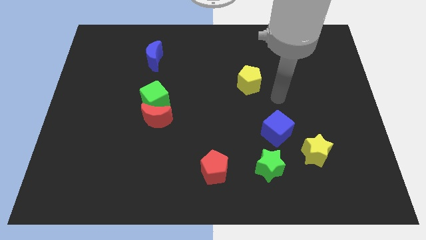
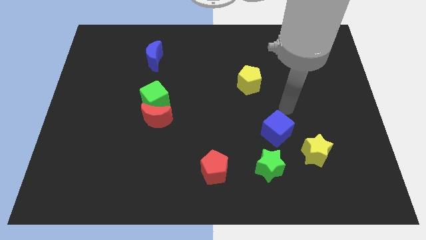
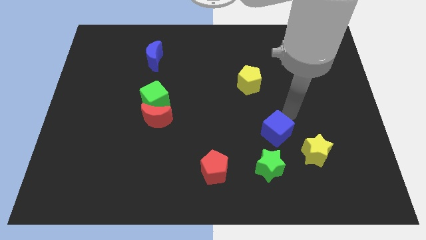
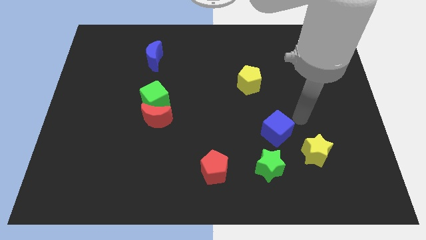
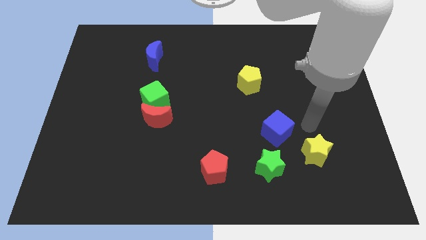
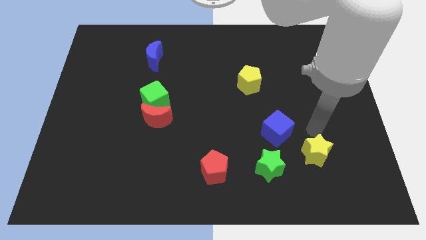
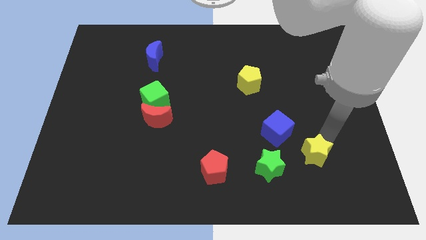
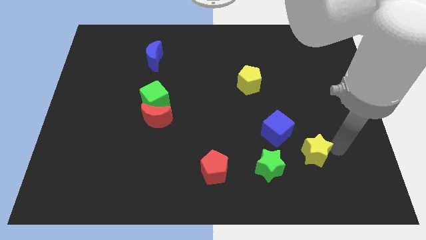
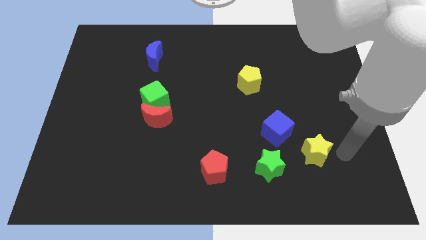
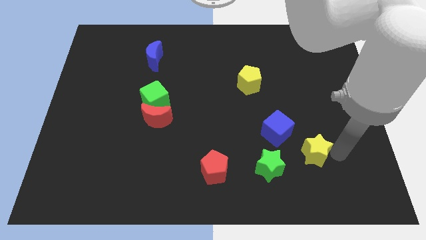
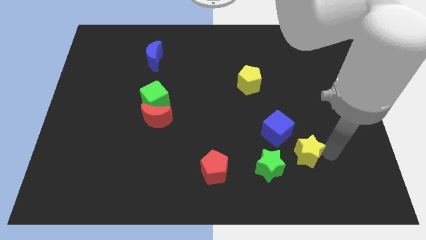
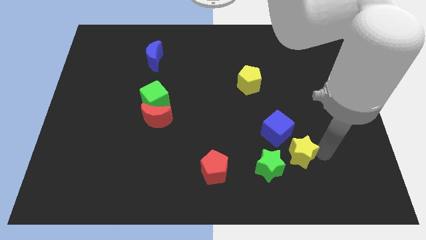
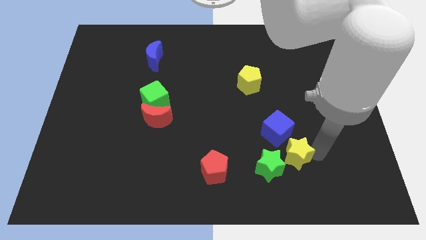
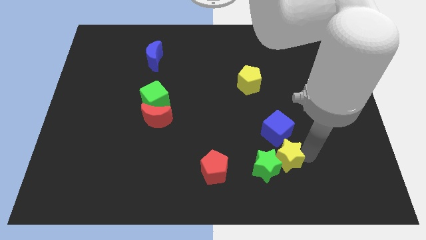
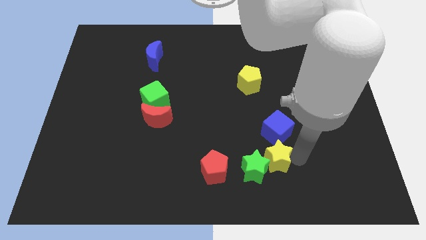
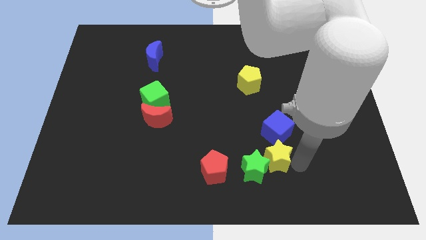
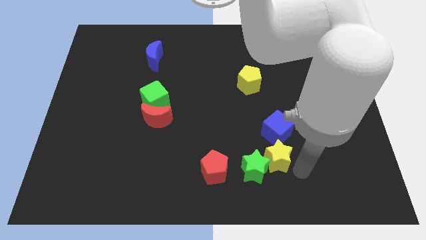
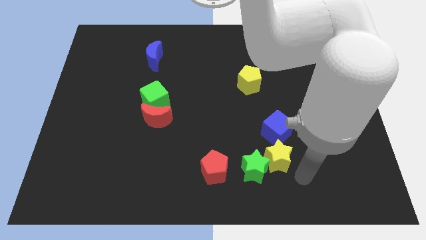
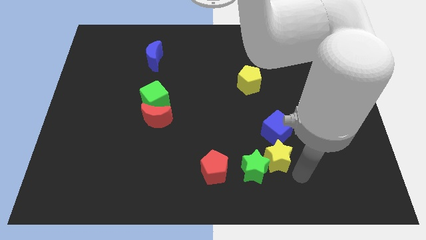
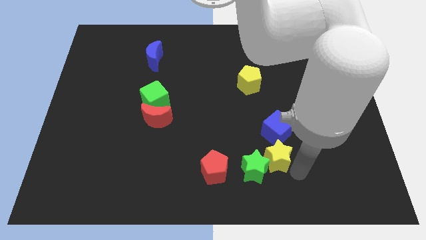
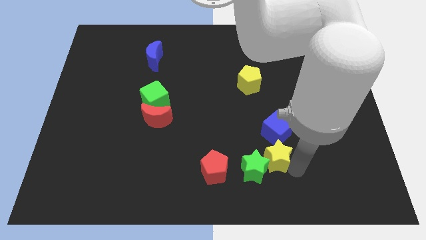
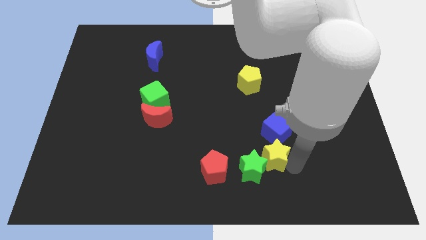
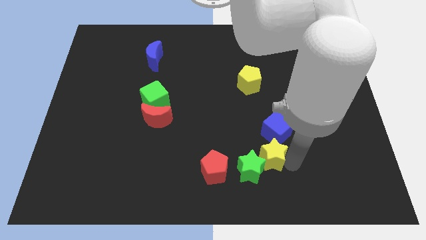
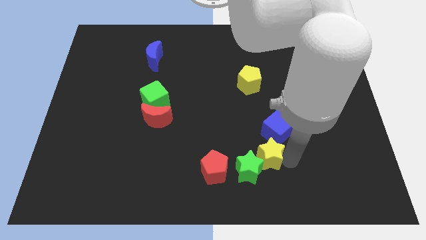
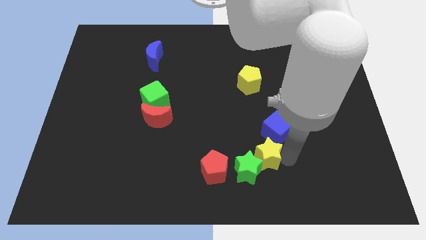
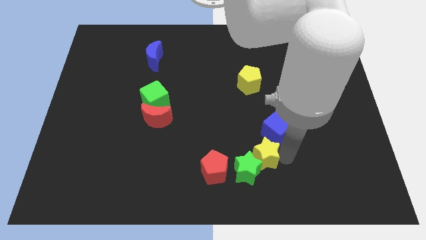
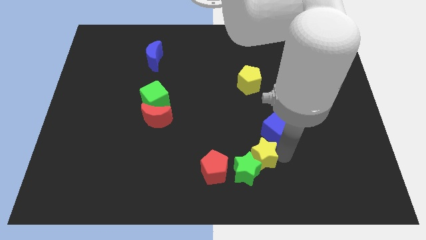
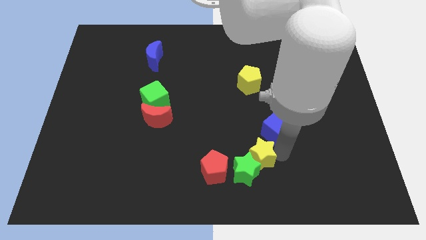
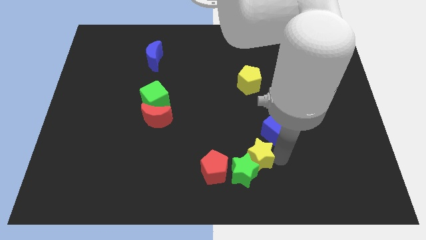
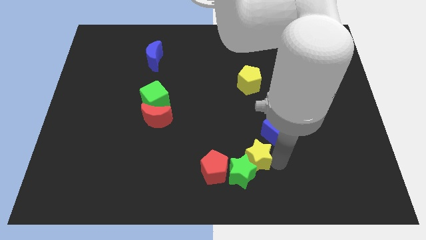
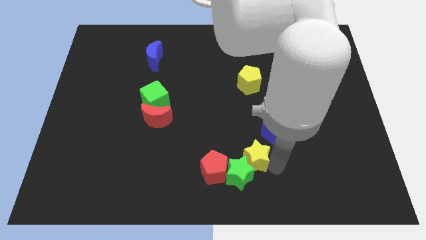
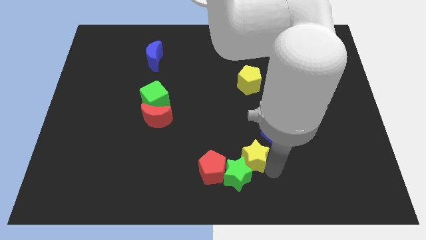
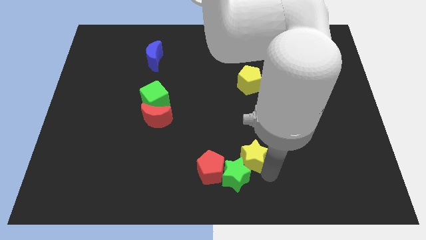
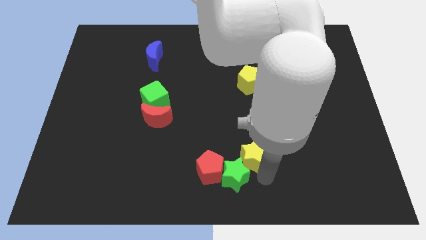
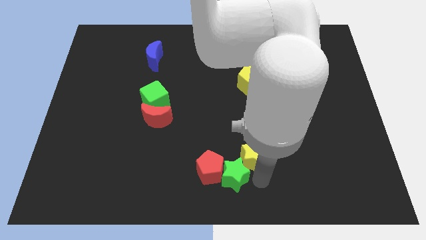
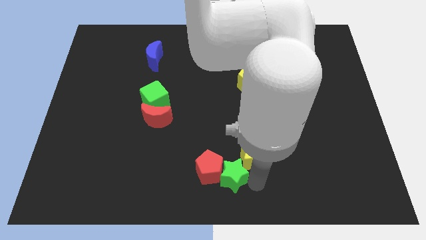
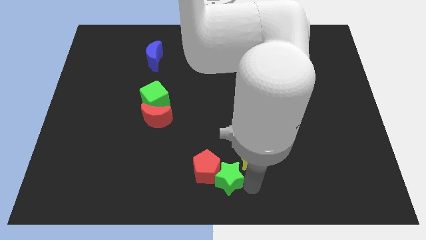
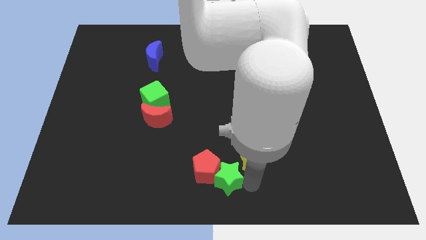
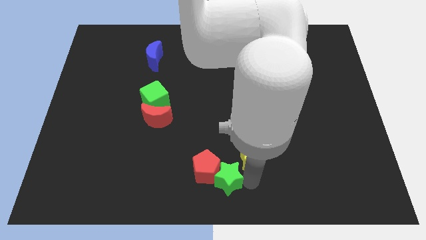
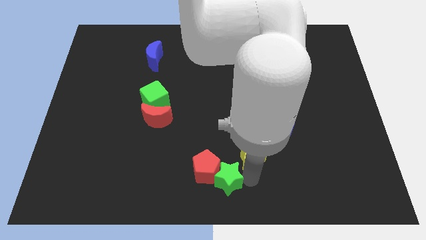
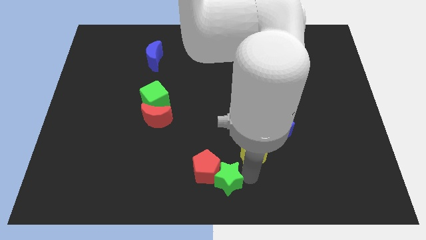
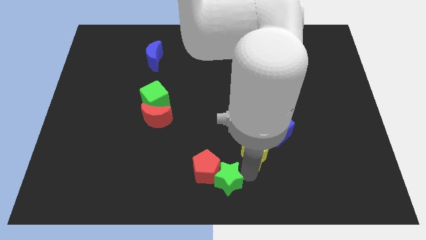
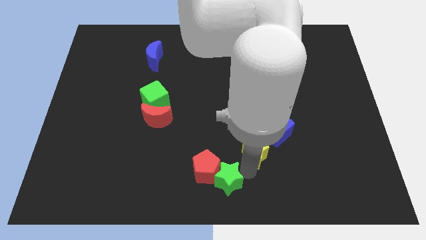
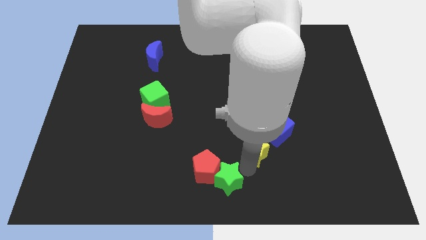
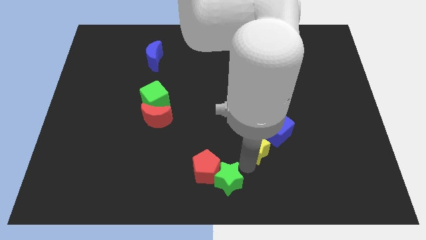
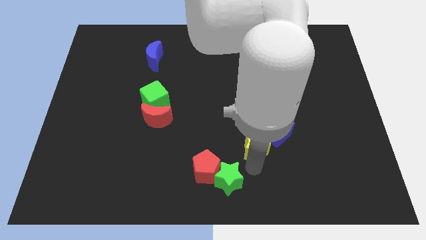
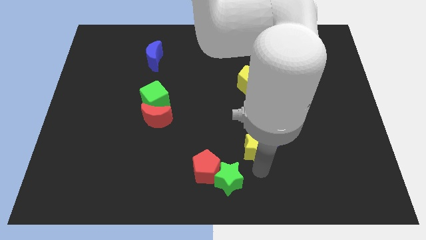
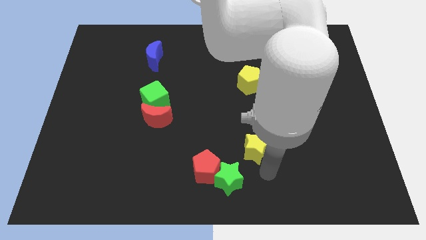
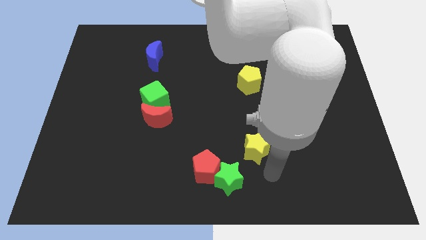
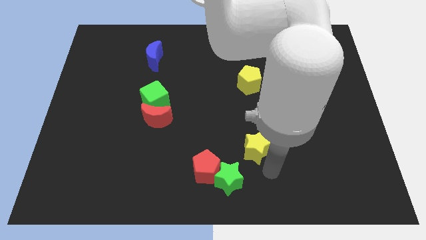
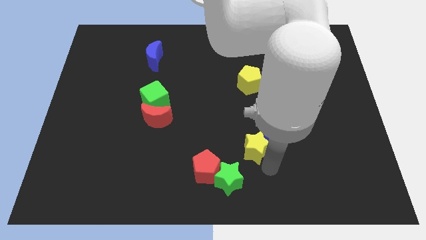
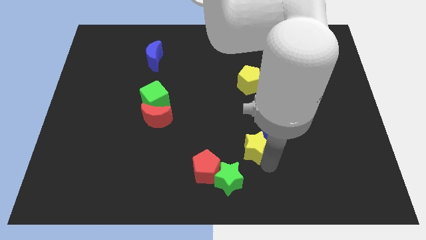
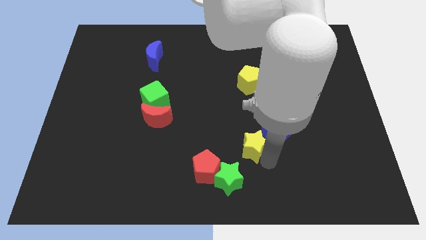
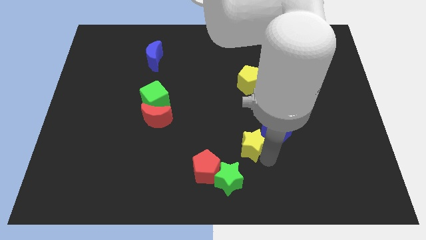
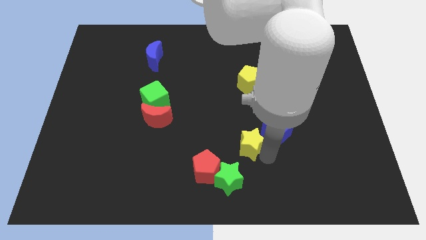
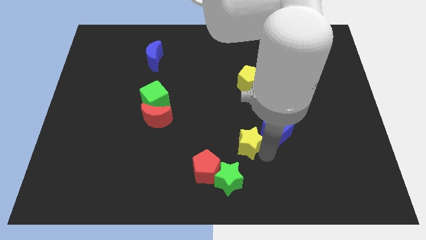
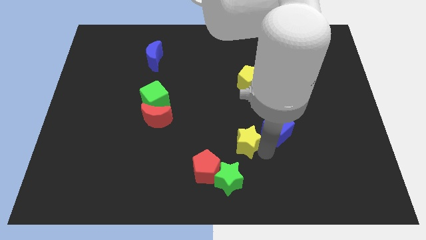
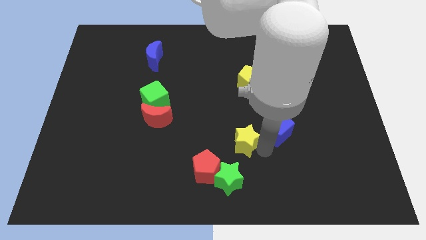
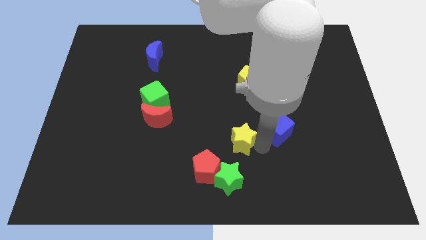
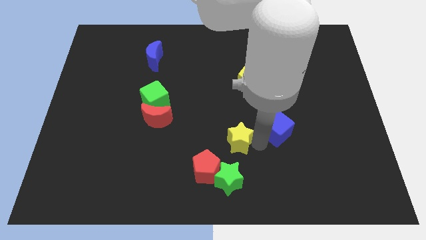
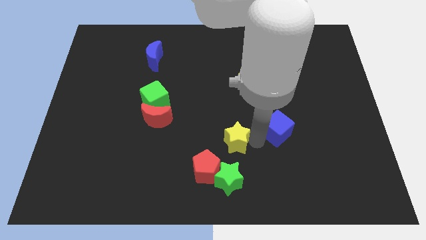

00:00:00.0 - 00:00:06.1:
move the yellow star to the middle of the board

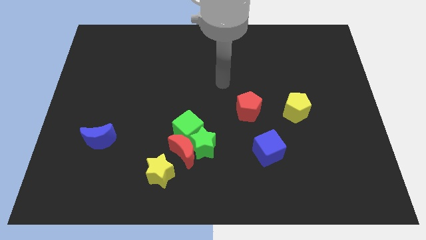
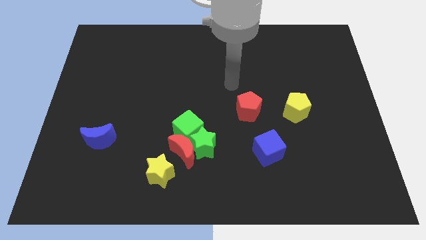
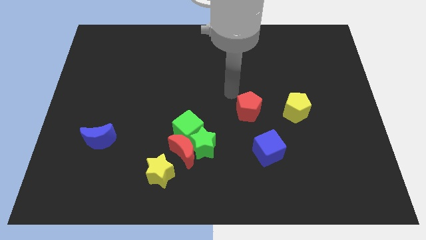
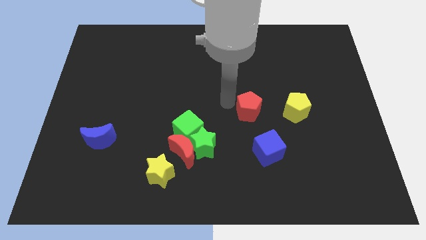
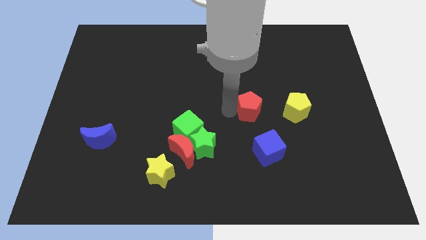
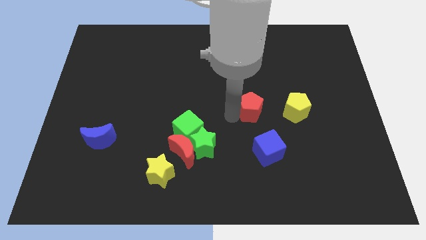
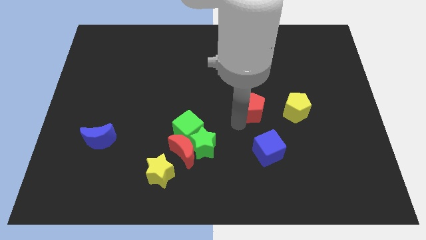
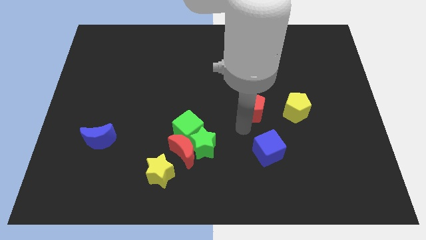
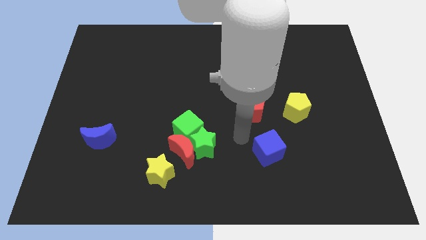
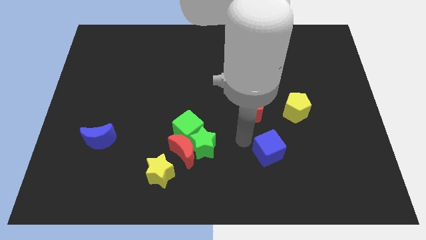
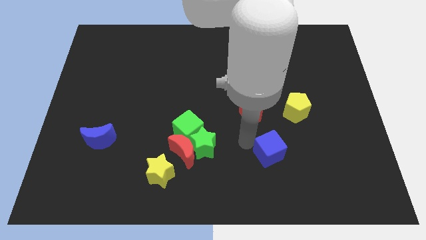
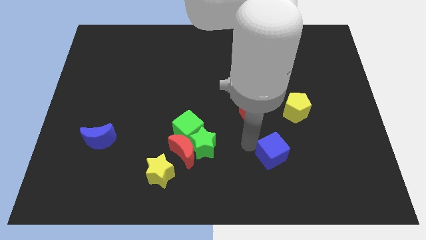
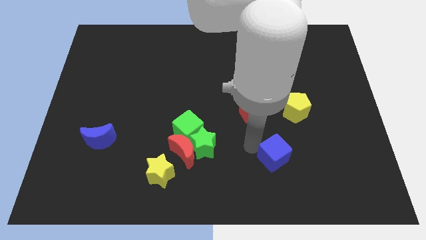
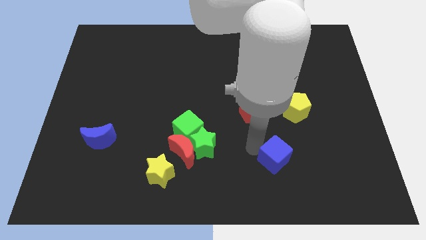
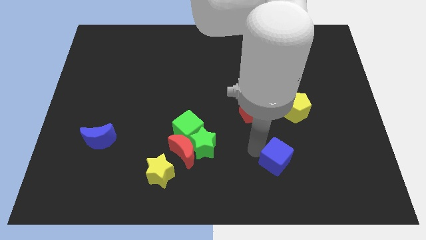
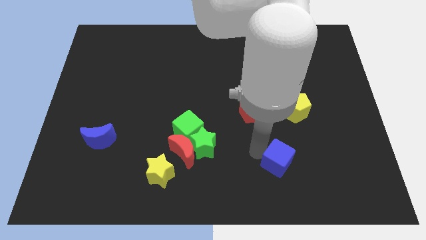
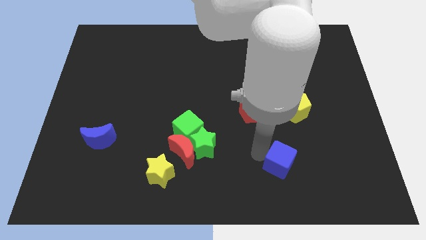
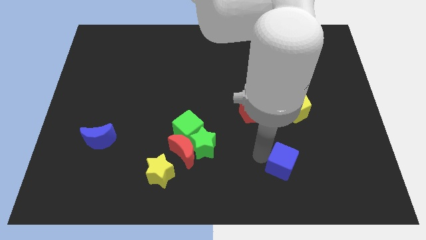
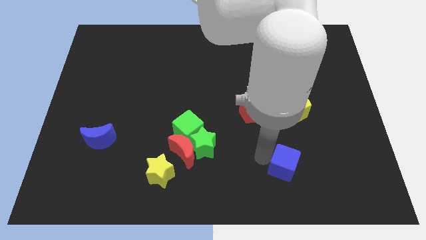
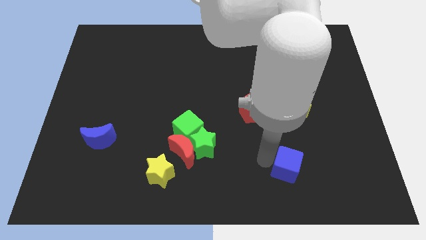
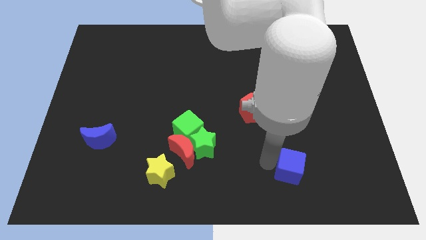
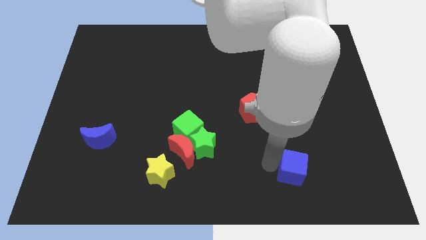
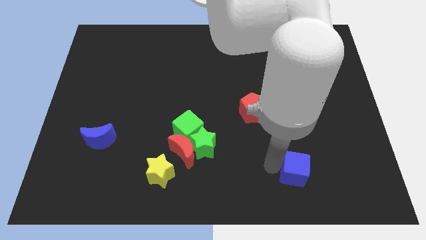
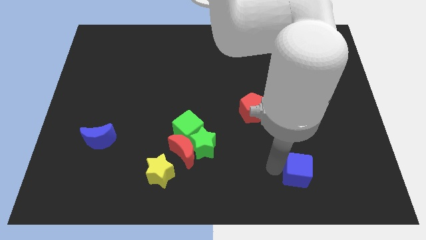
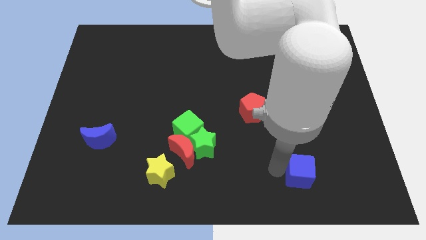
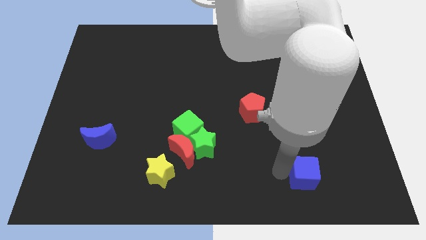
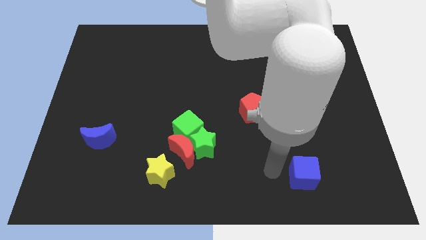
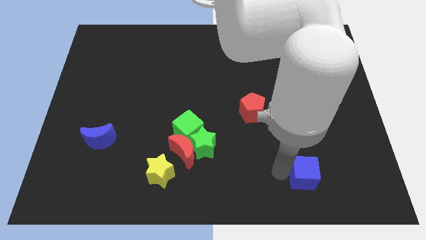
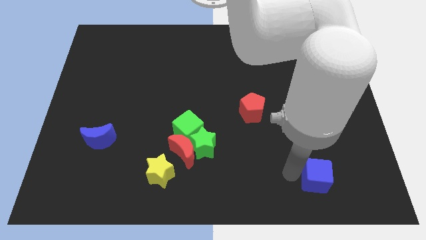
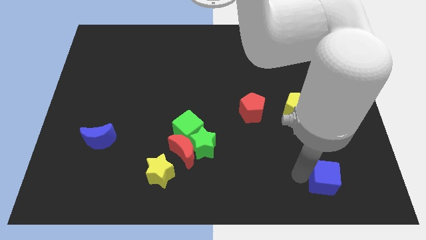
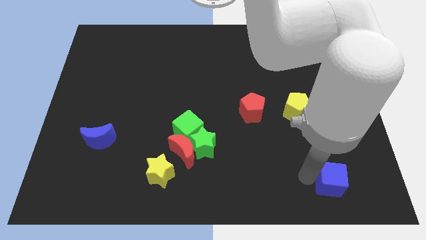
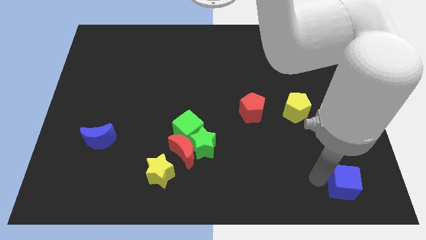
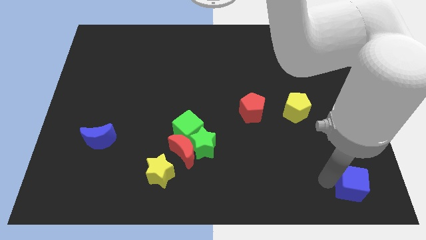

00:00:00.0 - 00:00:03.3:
slide the blue cube to the lower right corner
